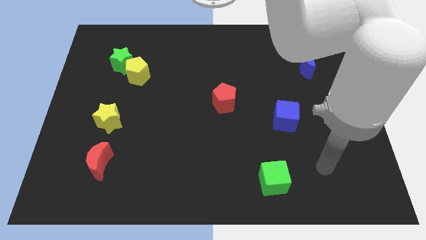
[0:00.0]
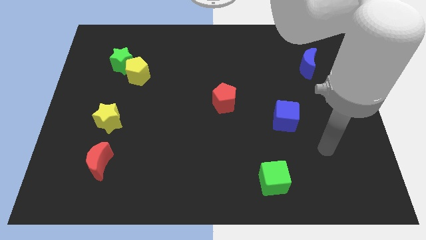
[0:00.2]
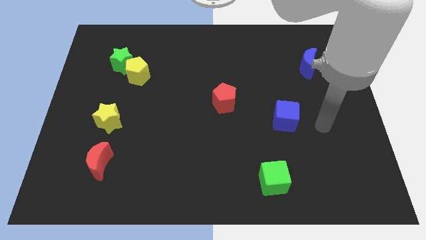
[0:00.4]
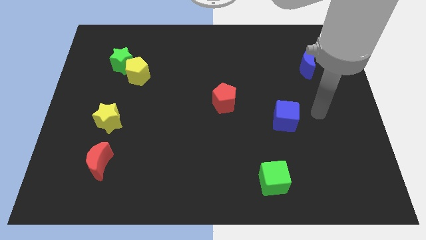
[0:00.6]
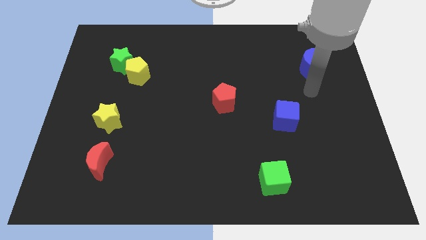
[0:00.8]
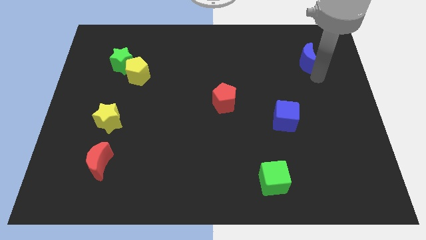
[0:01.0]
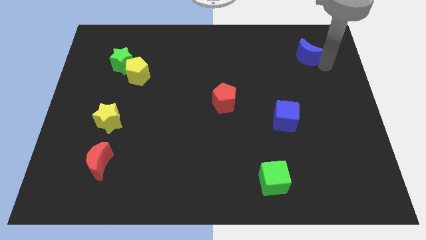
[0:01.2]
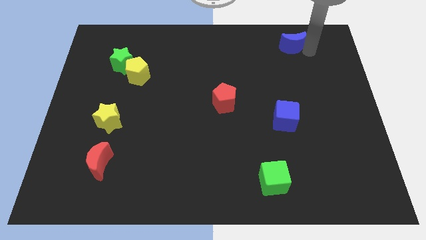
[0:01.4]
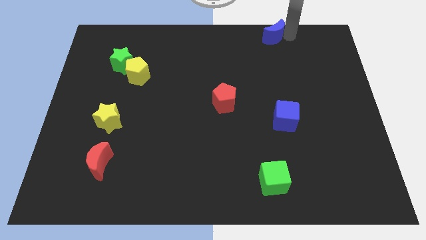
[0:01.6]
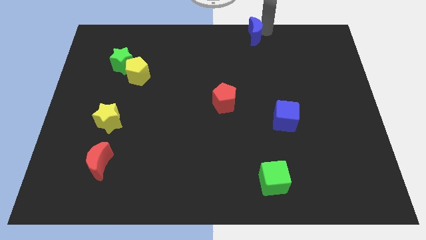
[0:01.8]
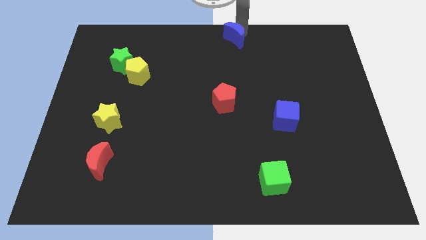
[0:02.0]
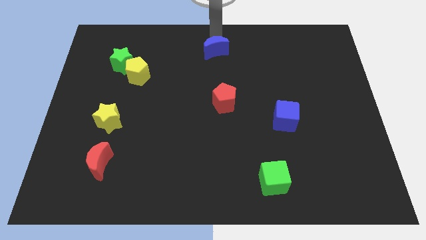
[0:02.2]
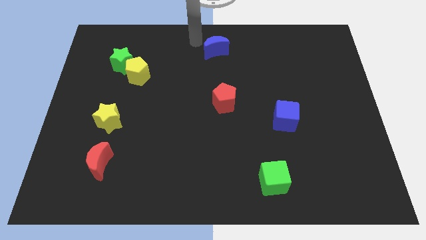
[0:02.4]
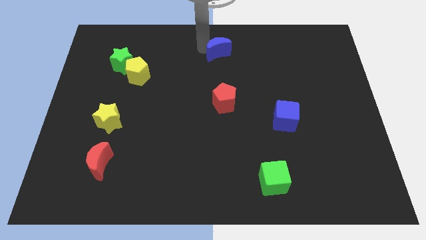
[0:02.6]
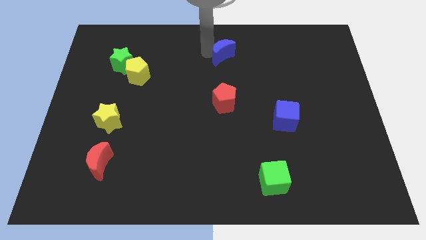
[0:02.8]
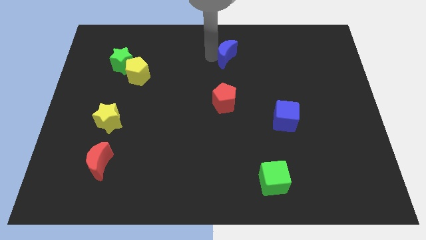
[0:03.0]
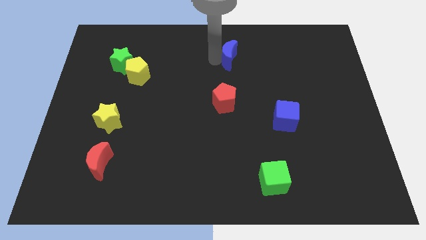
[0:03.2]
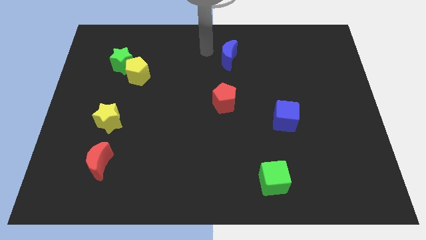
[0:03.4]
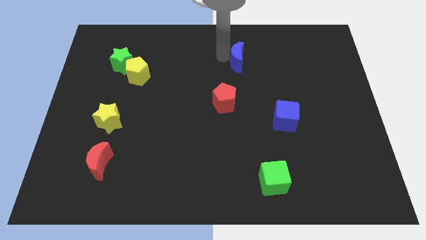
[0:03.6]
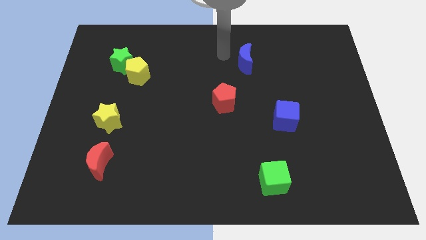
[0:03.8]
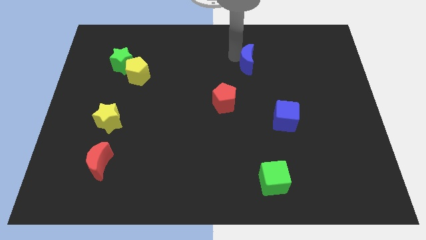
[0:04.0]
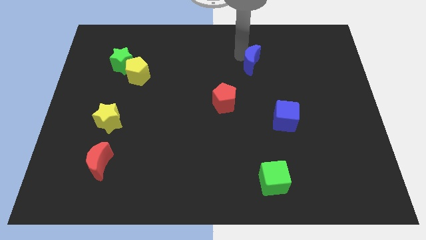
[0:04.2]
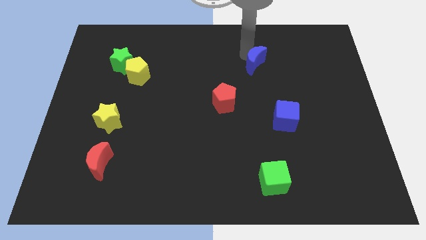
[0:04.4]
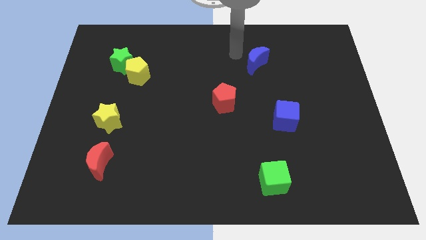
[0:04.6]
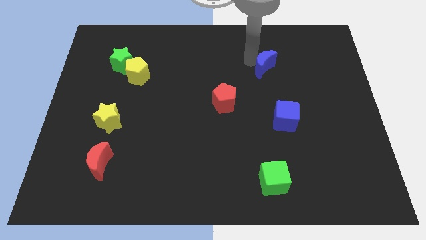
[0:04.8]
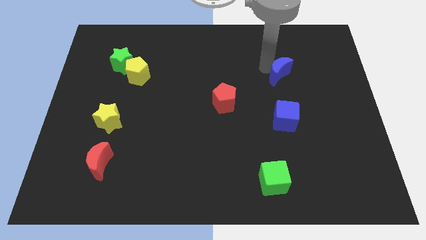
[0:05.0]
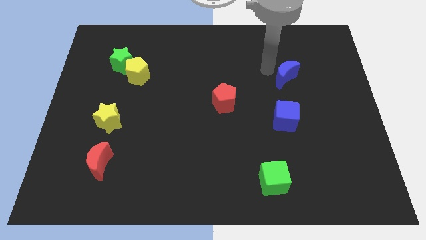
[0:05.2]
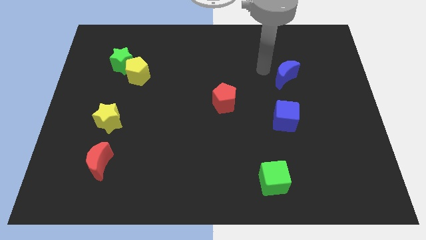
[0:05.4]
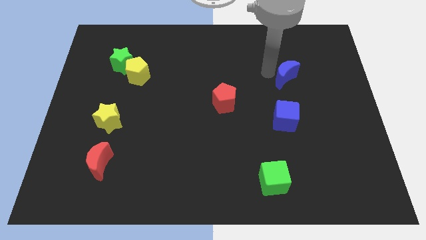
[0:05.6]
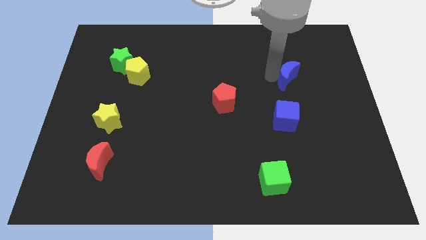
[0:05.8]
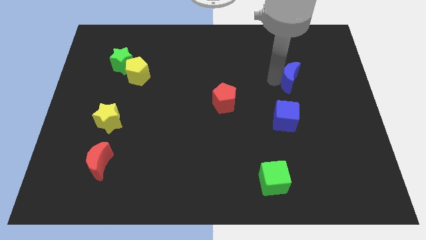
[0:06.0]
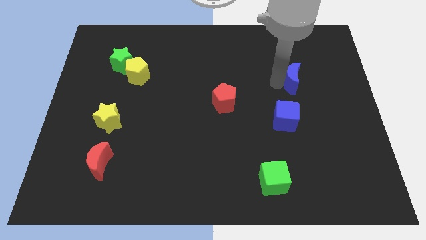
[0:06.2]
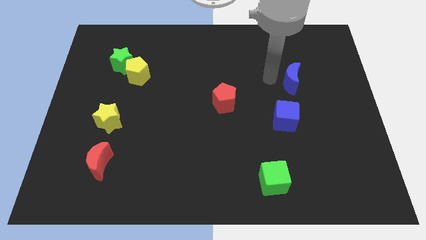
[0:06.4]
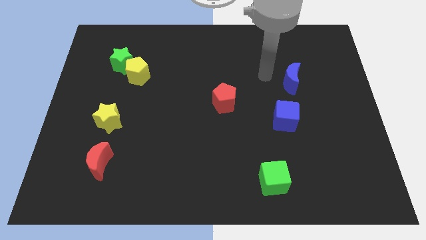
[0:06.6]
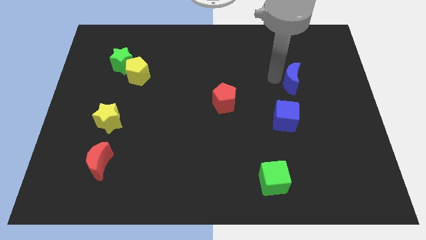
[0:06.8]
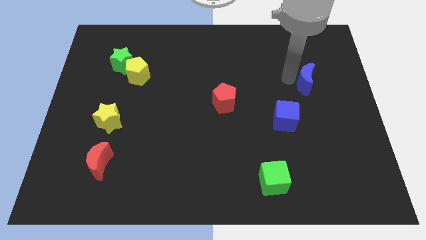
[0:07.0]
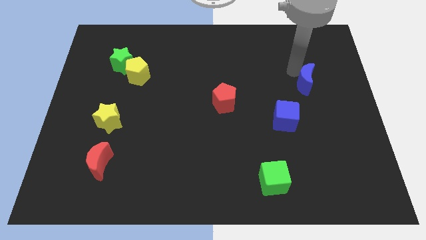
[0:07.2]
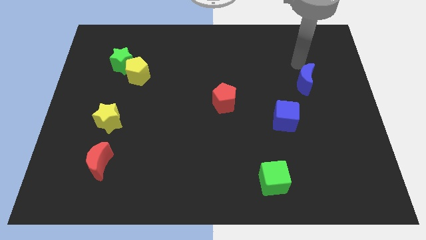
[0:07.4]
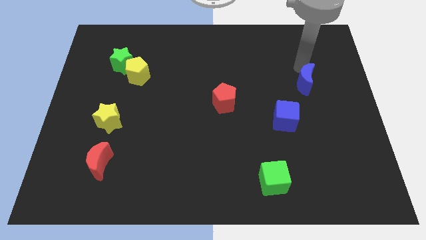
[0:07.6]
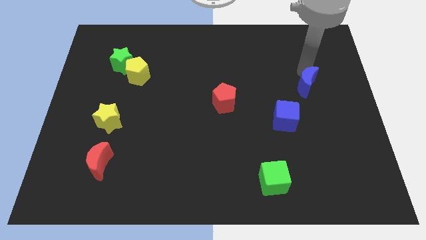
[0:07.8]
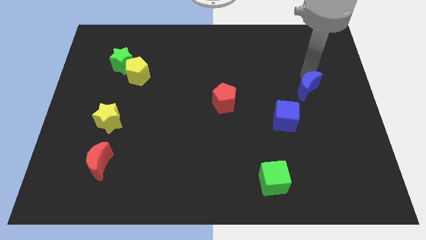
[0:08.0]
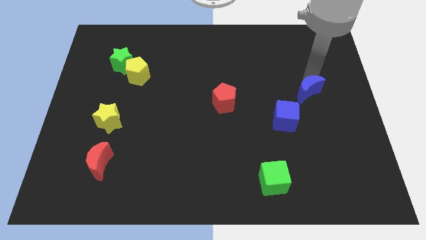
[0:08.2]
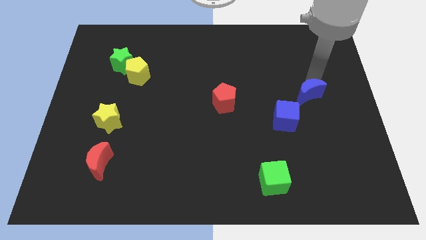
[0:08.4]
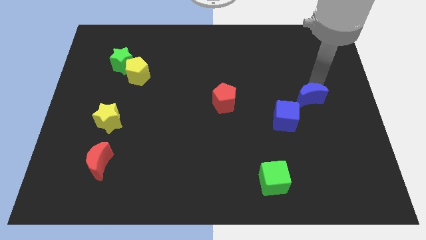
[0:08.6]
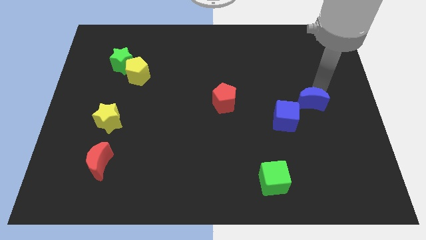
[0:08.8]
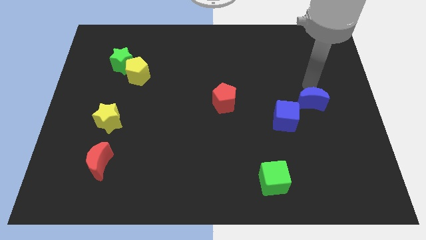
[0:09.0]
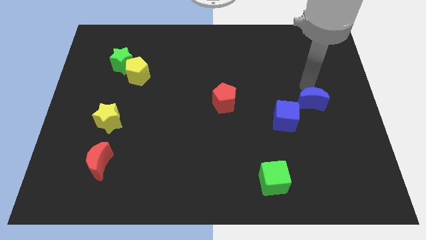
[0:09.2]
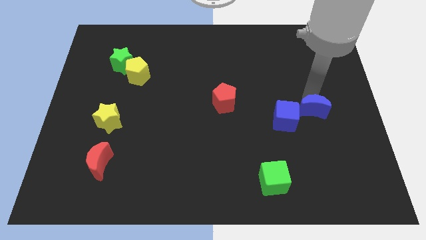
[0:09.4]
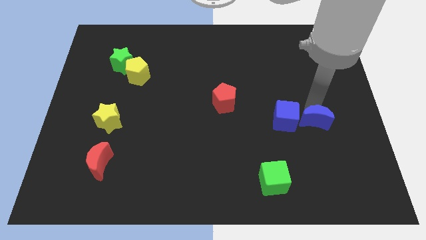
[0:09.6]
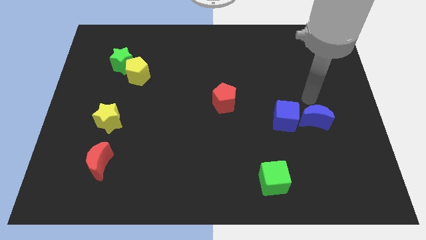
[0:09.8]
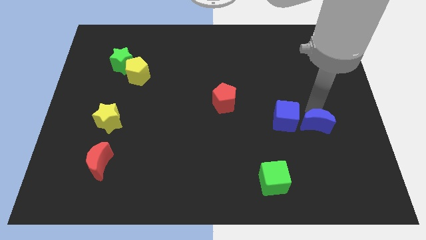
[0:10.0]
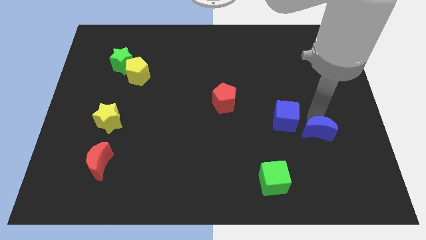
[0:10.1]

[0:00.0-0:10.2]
slide the blue moon down

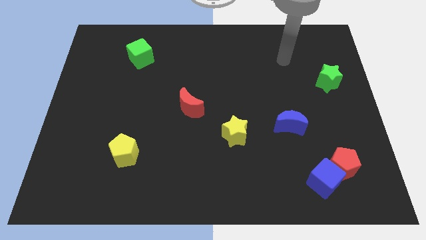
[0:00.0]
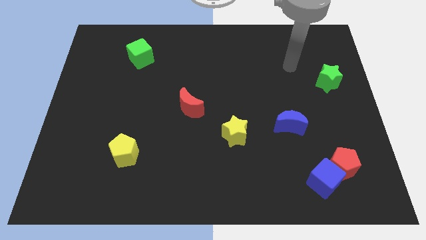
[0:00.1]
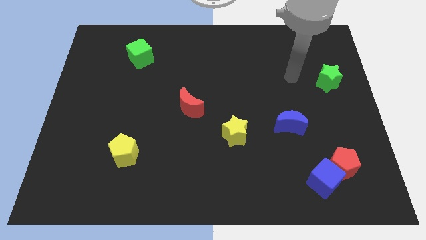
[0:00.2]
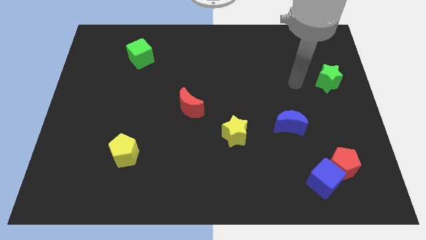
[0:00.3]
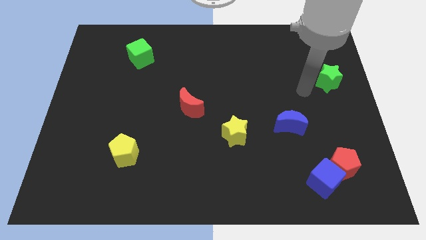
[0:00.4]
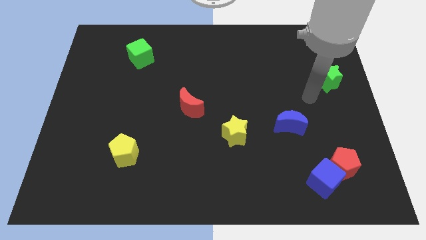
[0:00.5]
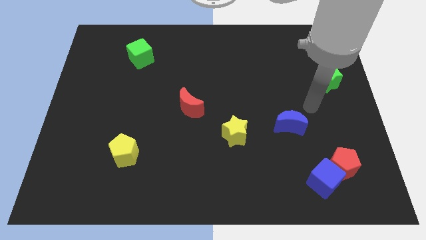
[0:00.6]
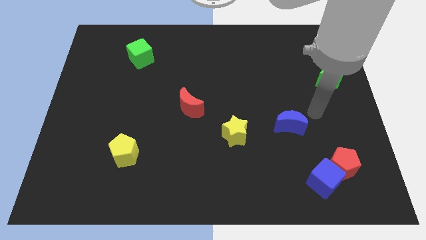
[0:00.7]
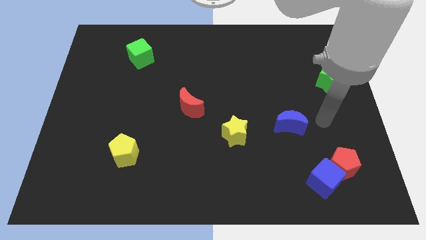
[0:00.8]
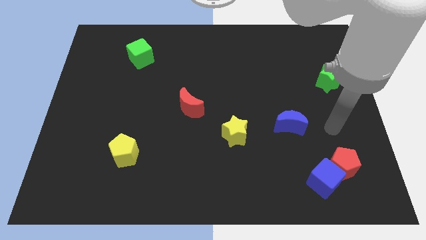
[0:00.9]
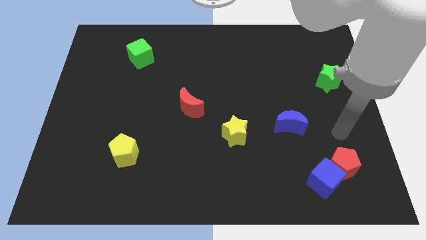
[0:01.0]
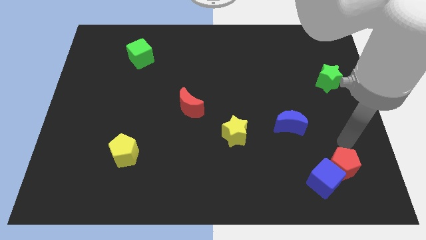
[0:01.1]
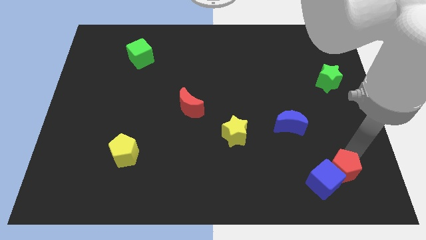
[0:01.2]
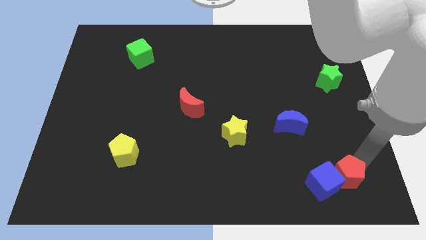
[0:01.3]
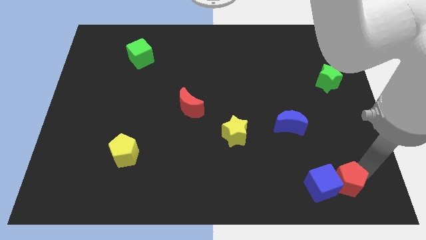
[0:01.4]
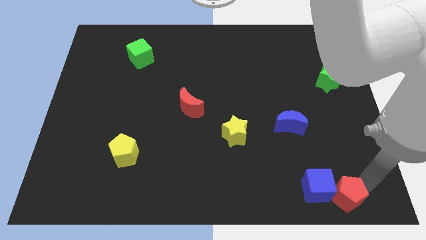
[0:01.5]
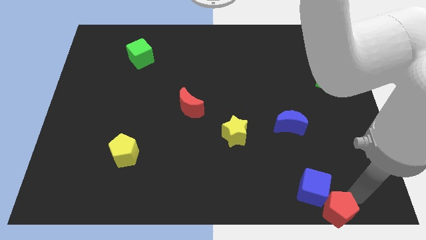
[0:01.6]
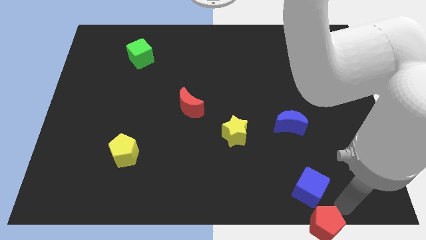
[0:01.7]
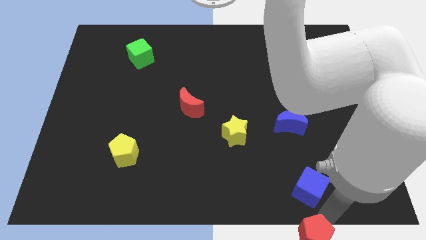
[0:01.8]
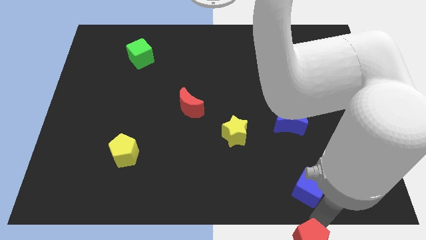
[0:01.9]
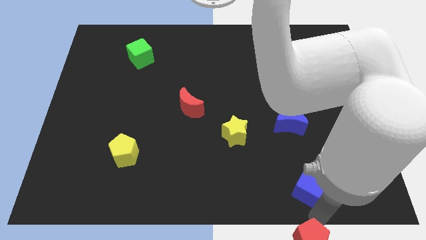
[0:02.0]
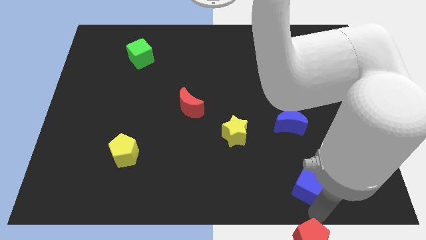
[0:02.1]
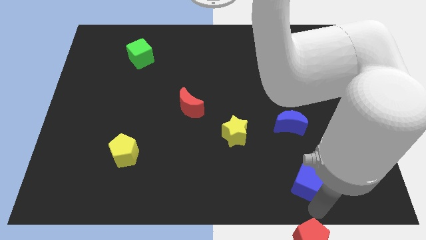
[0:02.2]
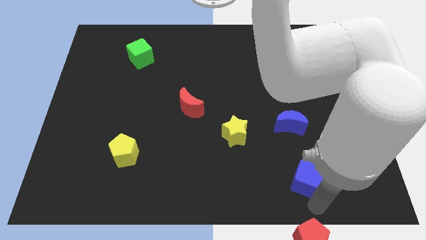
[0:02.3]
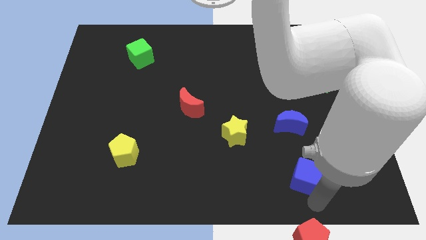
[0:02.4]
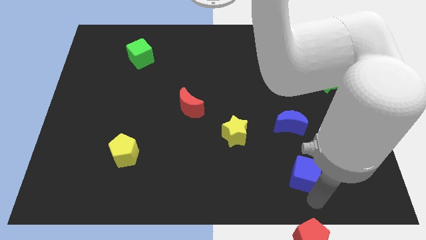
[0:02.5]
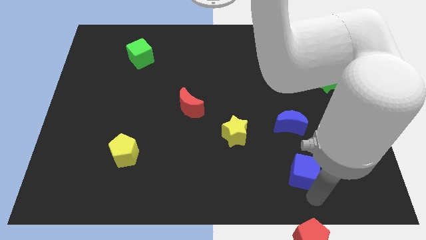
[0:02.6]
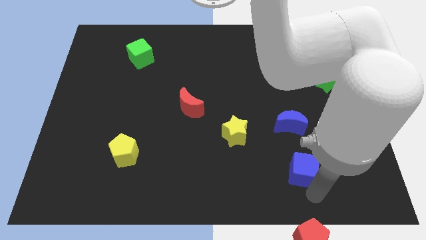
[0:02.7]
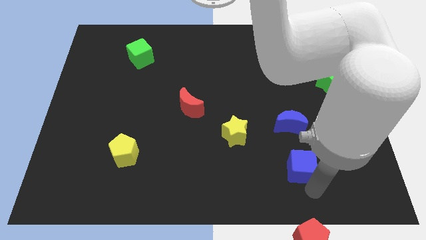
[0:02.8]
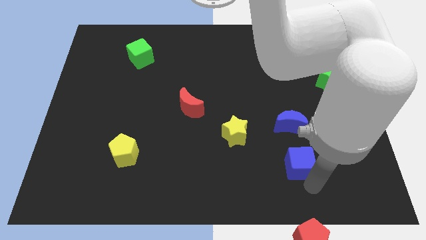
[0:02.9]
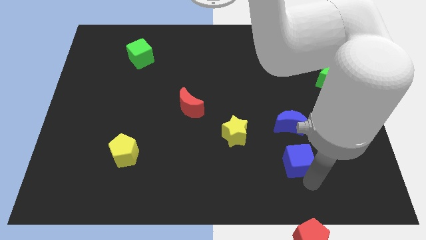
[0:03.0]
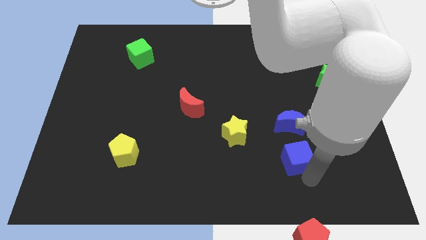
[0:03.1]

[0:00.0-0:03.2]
slightly slide the blue cube up and to the left diagonally
